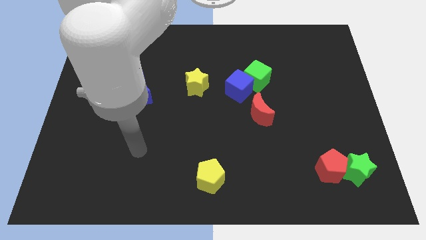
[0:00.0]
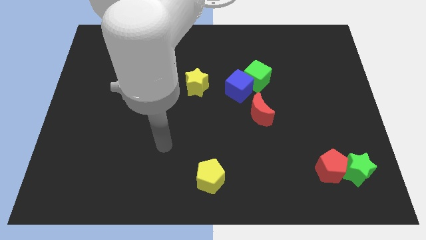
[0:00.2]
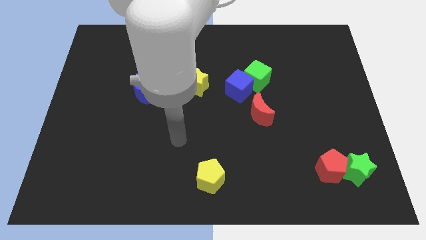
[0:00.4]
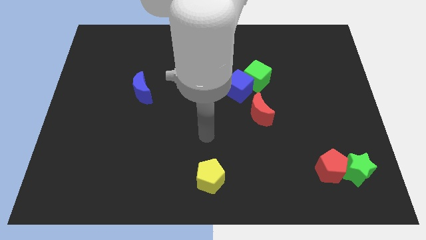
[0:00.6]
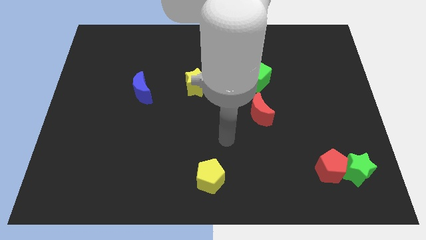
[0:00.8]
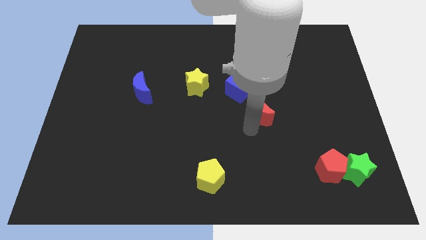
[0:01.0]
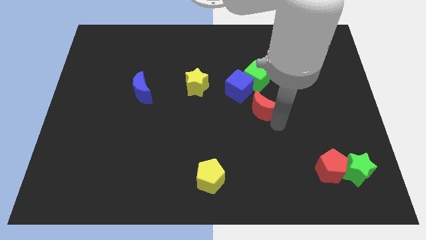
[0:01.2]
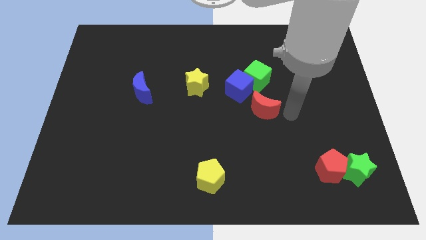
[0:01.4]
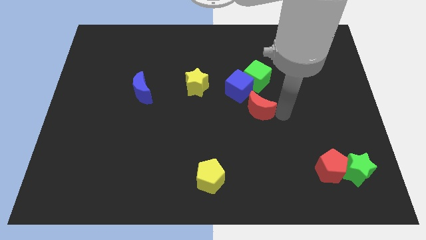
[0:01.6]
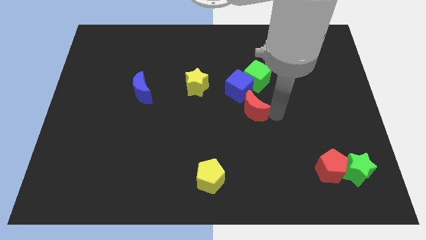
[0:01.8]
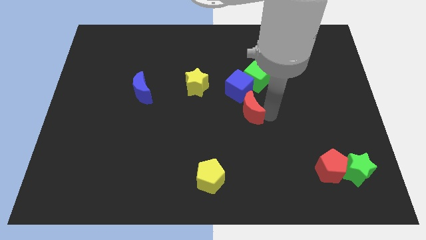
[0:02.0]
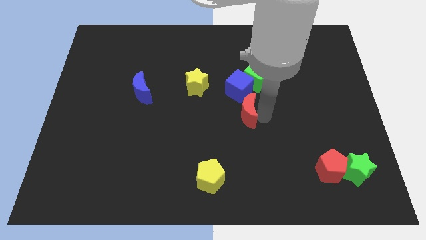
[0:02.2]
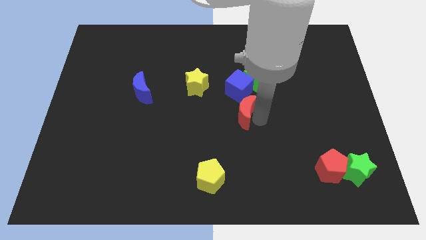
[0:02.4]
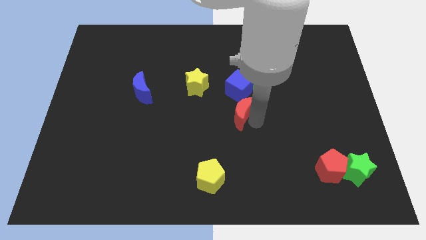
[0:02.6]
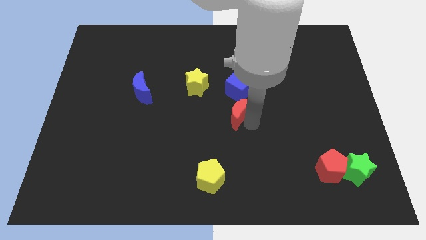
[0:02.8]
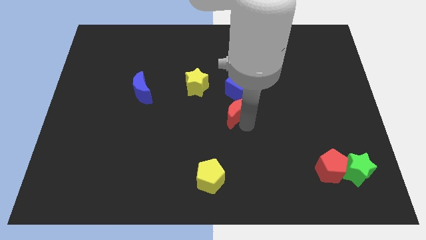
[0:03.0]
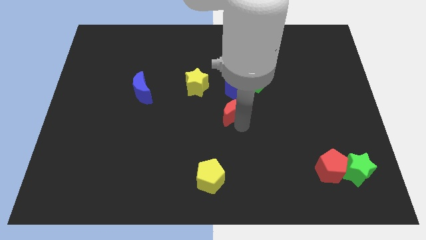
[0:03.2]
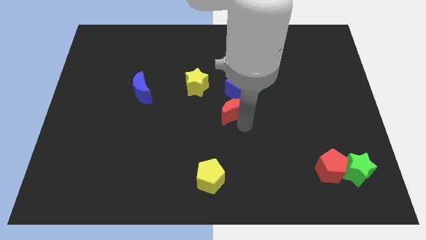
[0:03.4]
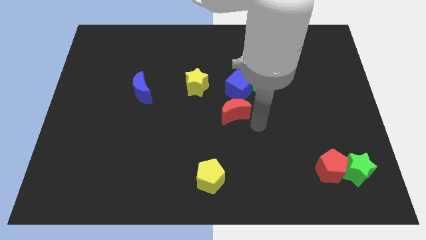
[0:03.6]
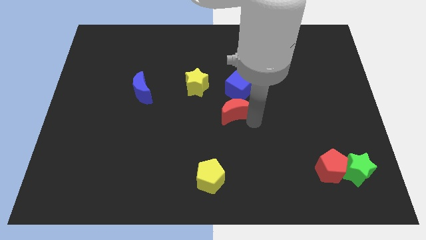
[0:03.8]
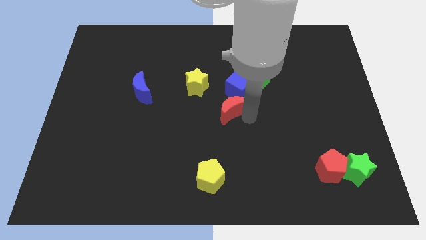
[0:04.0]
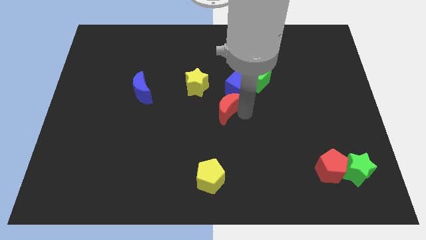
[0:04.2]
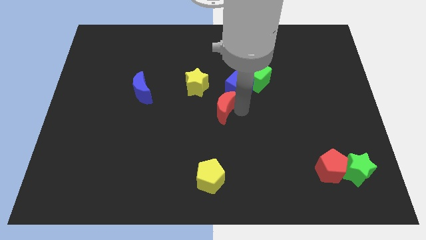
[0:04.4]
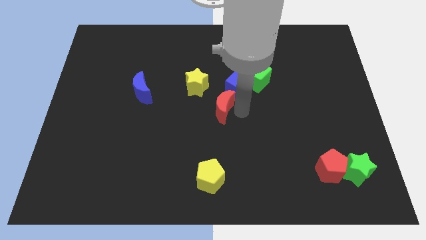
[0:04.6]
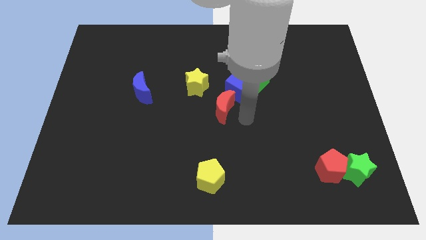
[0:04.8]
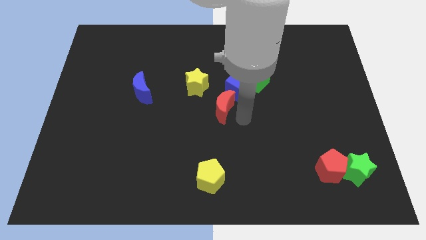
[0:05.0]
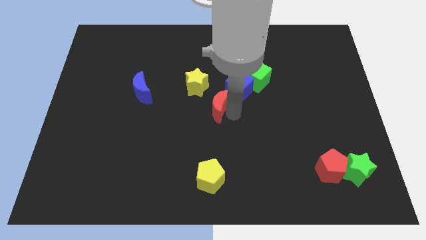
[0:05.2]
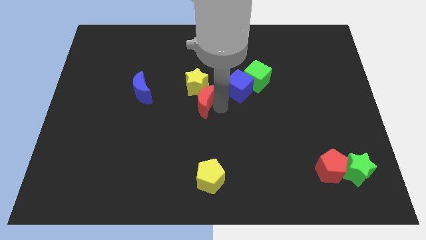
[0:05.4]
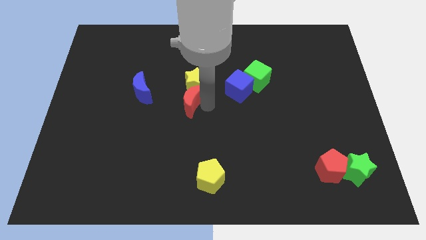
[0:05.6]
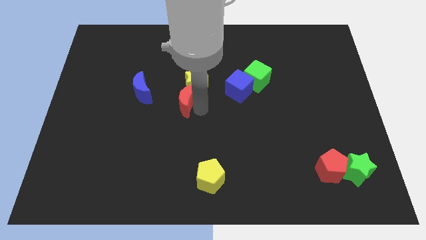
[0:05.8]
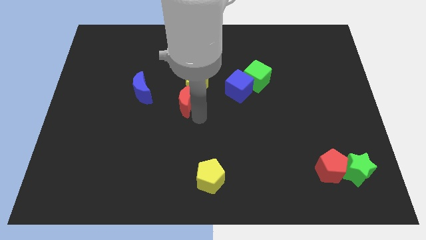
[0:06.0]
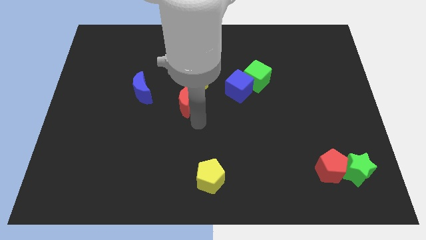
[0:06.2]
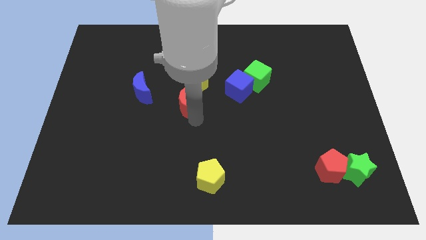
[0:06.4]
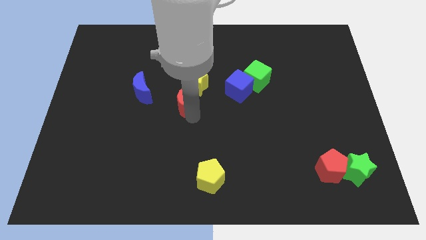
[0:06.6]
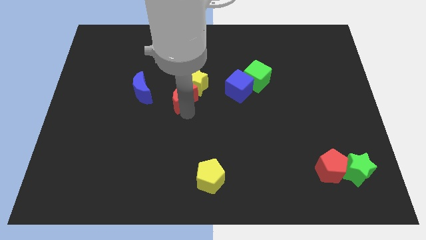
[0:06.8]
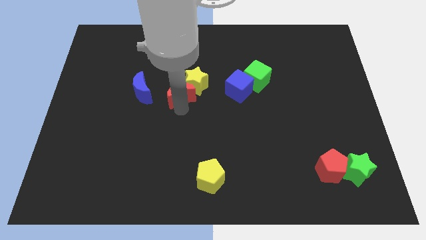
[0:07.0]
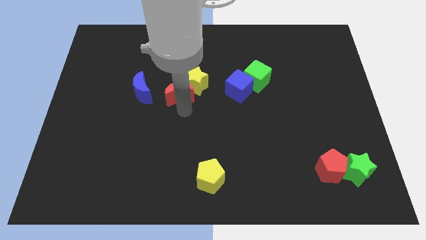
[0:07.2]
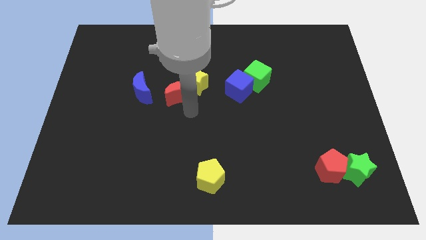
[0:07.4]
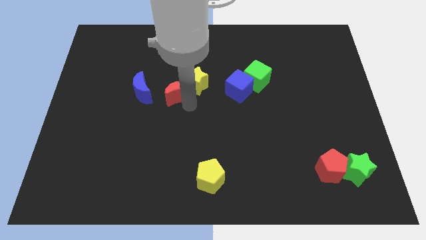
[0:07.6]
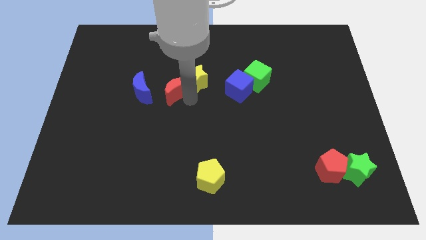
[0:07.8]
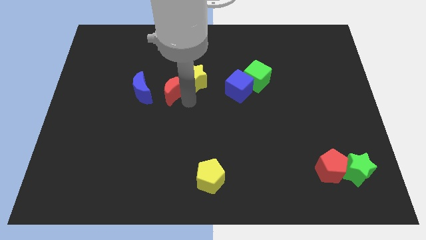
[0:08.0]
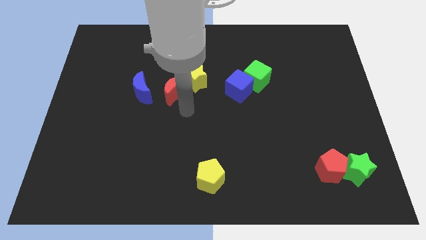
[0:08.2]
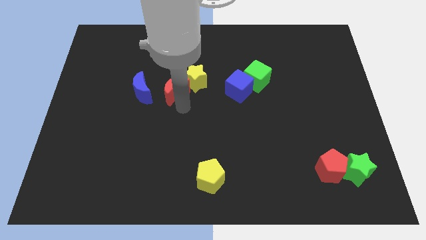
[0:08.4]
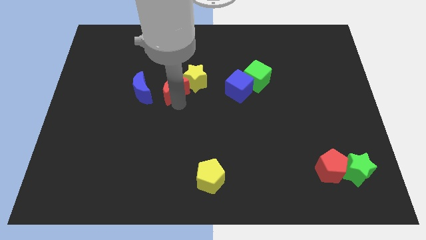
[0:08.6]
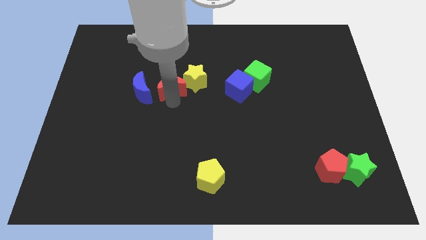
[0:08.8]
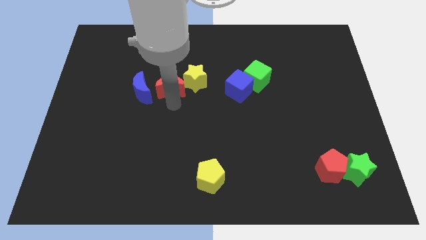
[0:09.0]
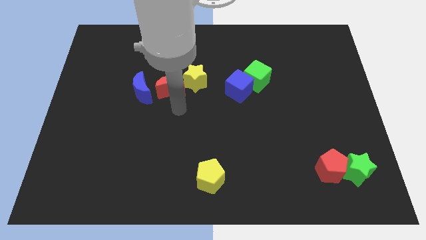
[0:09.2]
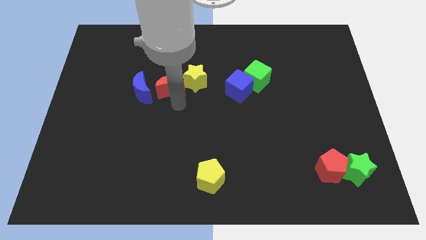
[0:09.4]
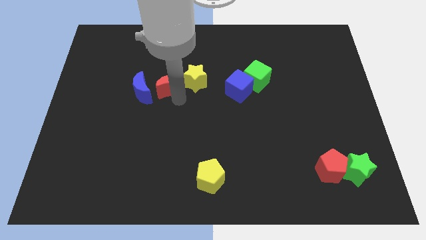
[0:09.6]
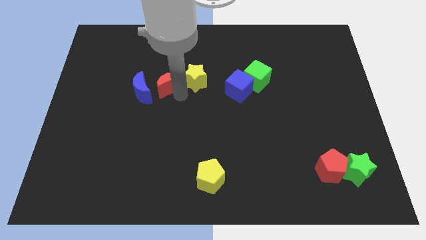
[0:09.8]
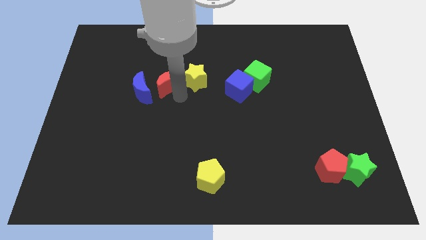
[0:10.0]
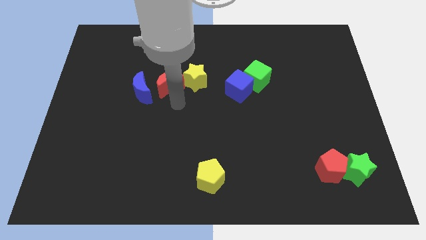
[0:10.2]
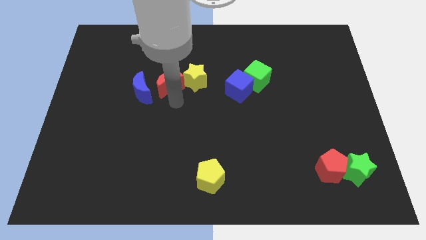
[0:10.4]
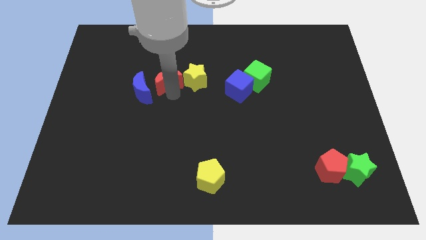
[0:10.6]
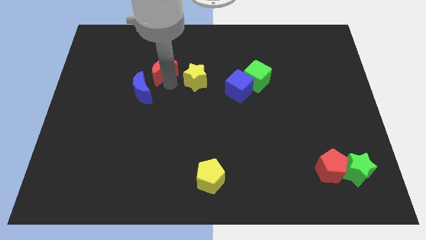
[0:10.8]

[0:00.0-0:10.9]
slide the red moon to the top side of the blue moon

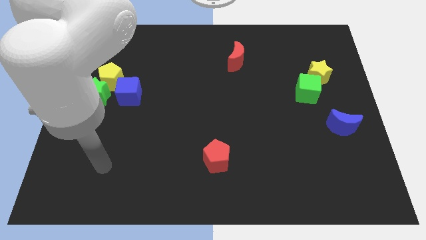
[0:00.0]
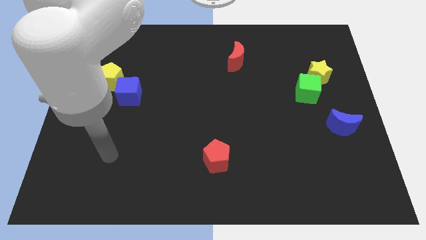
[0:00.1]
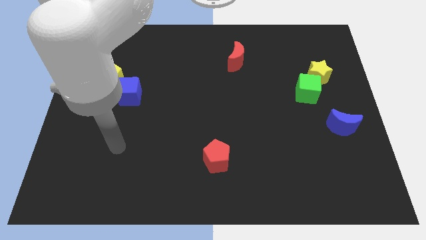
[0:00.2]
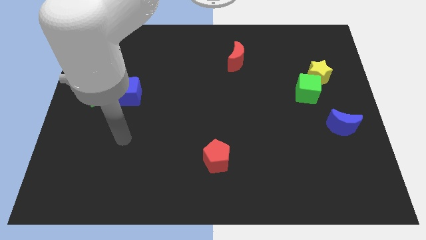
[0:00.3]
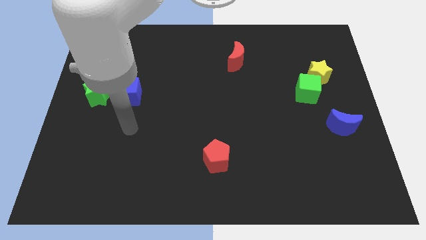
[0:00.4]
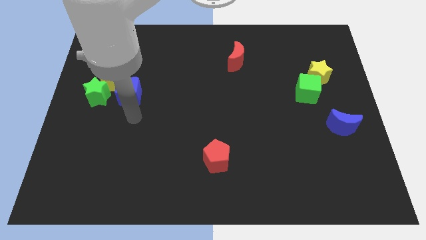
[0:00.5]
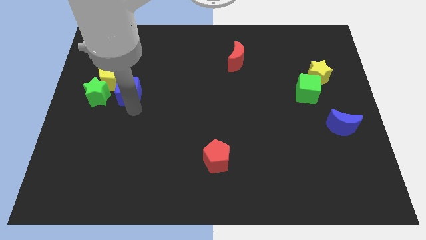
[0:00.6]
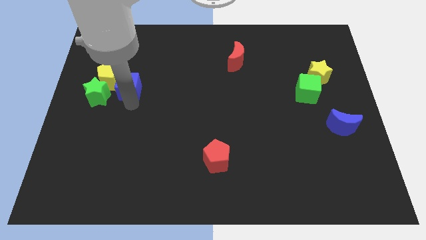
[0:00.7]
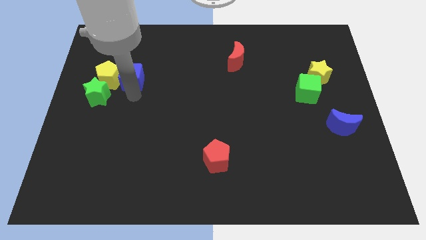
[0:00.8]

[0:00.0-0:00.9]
put the yellow pentagon diagonally down and to the left of the blue cube

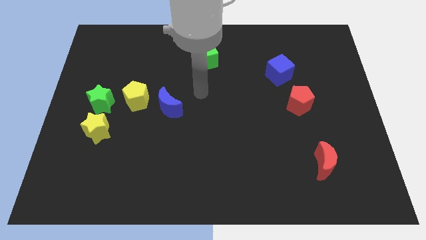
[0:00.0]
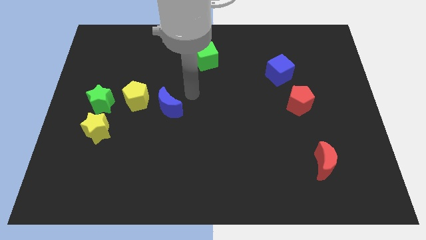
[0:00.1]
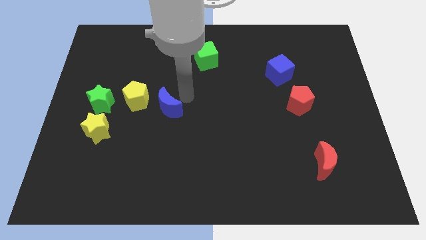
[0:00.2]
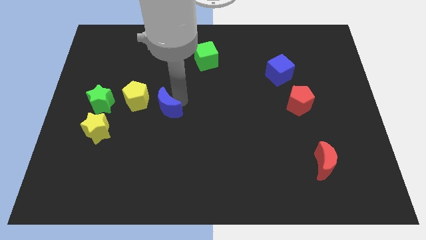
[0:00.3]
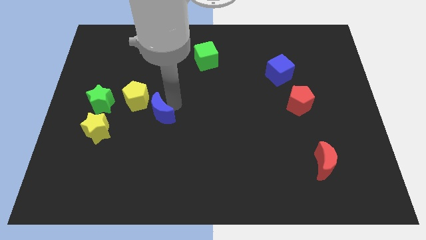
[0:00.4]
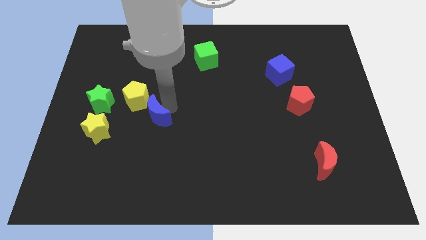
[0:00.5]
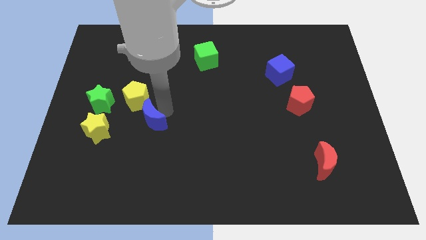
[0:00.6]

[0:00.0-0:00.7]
push the blue moon to the bottom of the yellow pentagon
